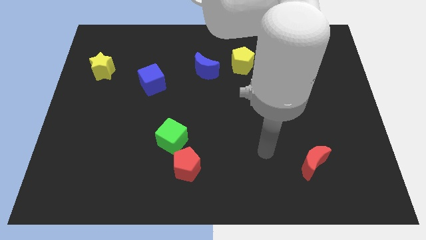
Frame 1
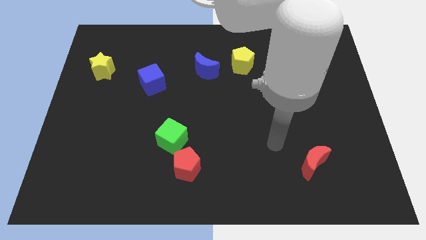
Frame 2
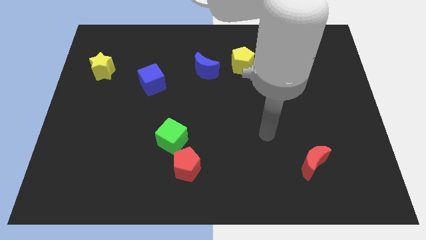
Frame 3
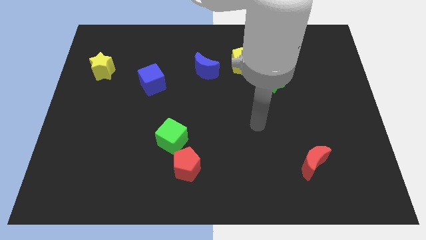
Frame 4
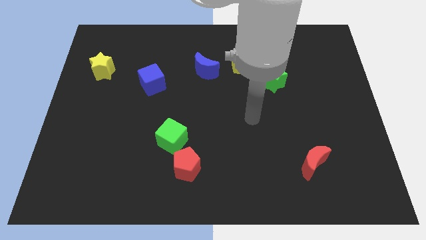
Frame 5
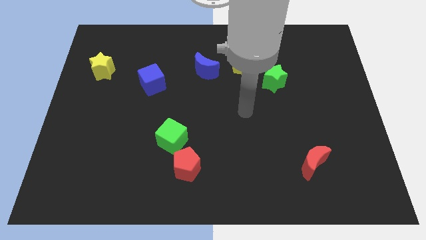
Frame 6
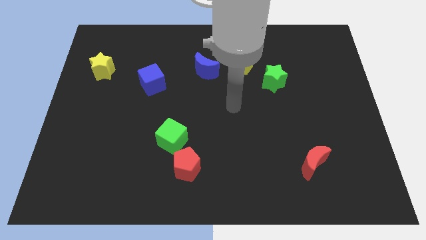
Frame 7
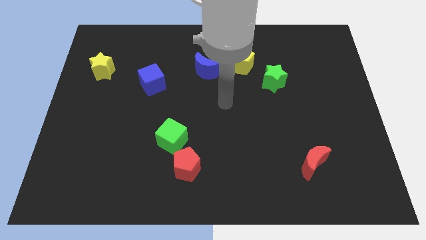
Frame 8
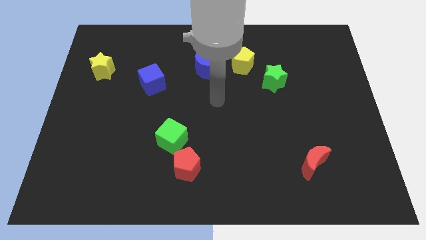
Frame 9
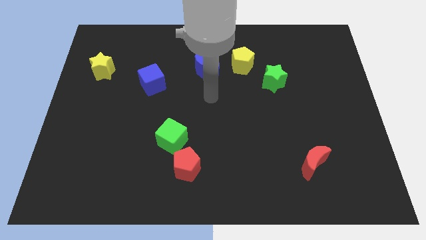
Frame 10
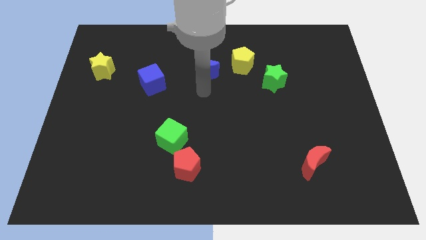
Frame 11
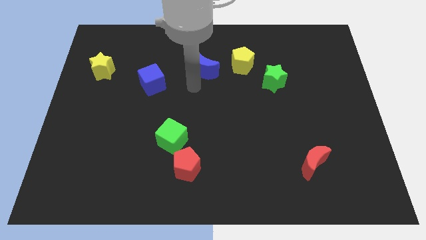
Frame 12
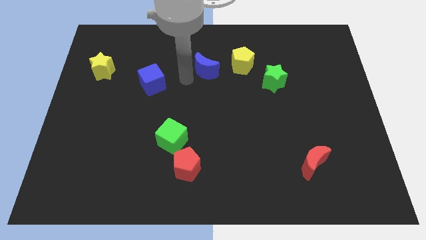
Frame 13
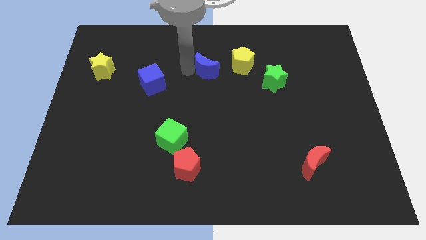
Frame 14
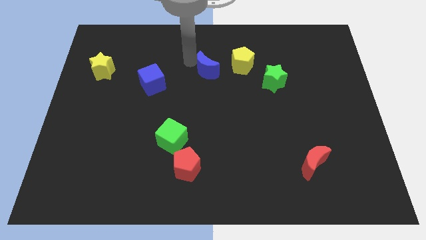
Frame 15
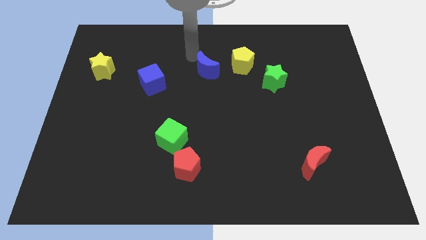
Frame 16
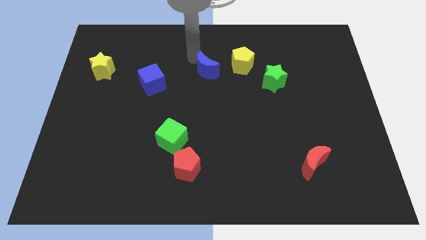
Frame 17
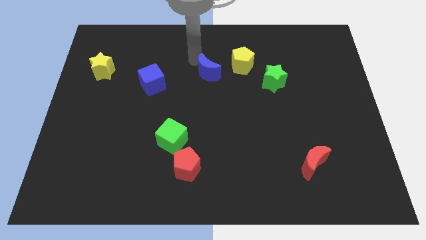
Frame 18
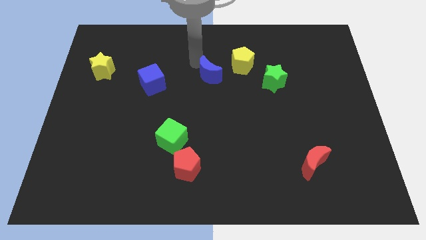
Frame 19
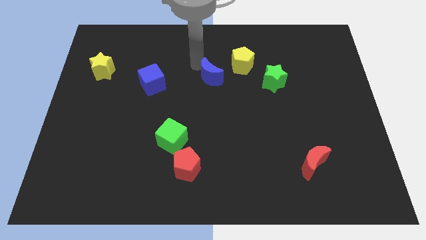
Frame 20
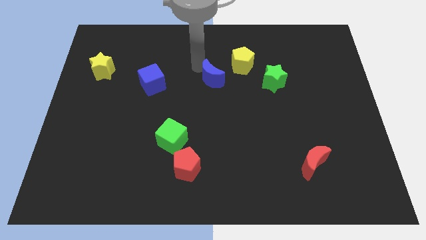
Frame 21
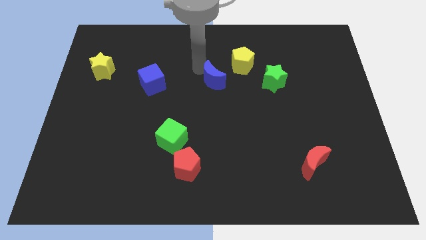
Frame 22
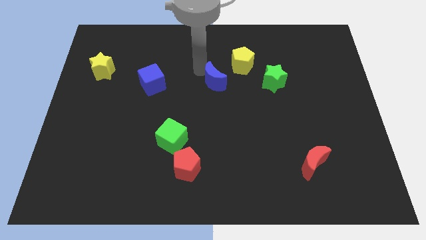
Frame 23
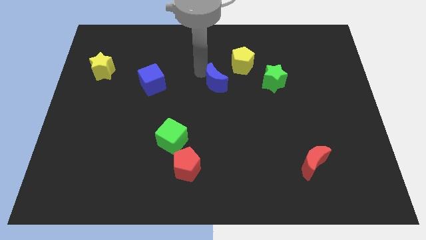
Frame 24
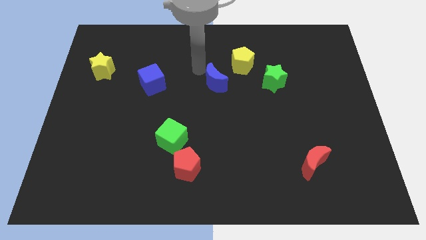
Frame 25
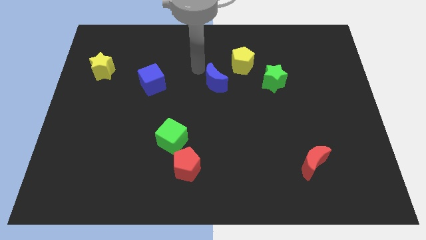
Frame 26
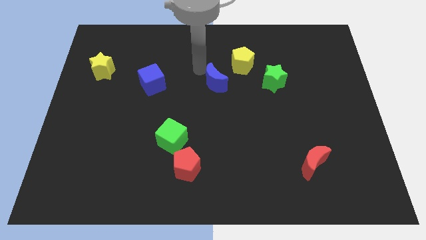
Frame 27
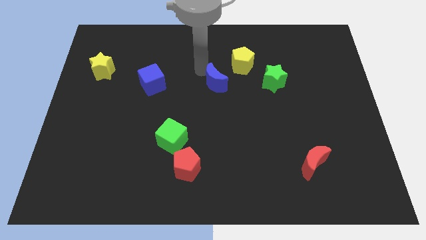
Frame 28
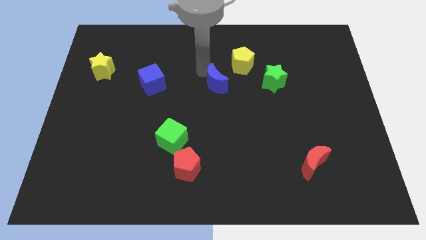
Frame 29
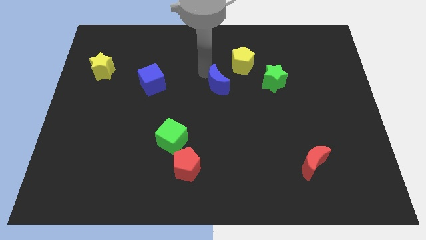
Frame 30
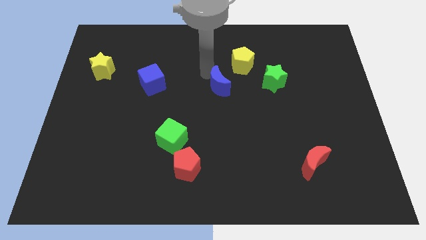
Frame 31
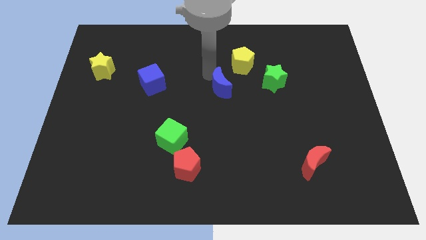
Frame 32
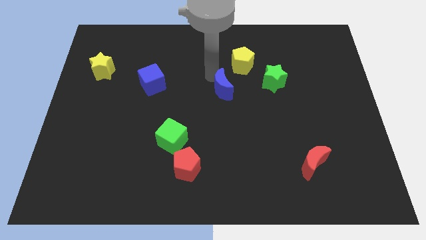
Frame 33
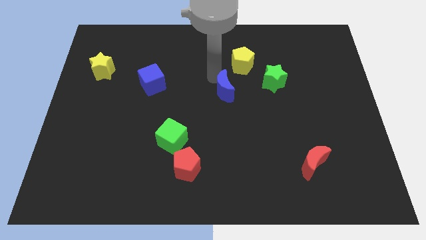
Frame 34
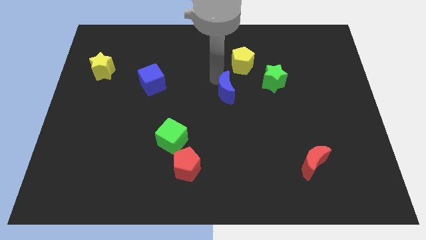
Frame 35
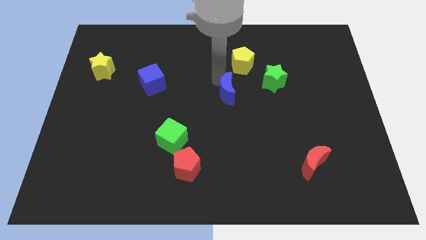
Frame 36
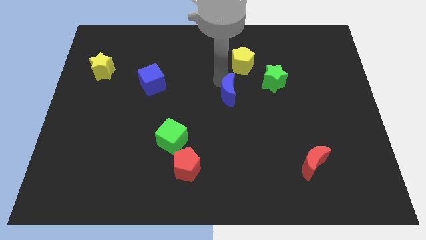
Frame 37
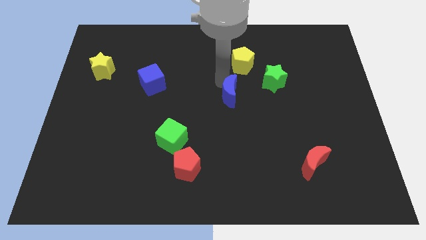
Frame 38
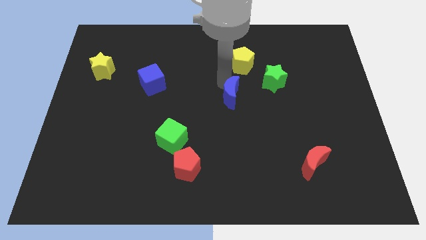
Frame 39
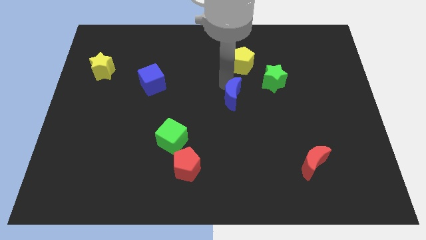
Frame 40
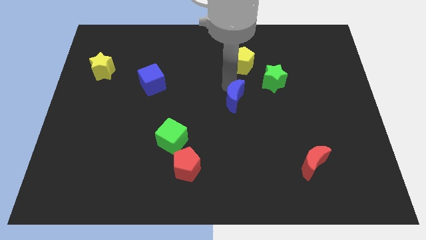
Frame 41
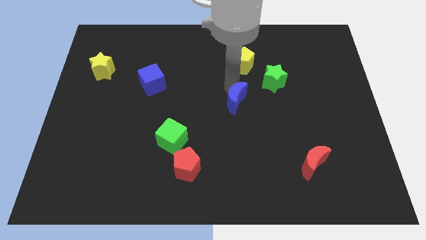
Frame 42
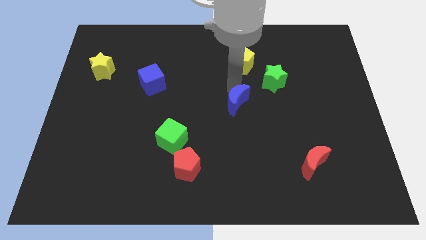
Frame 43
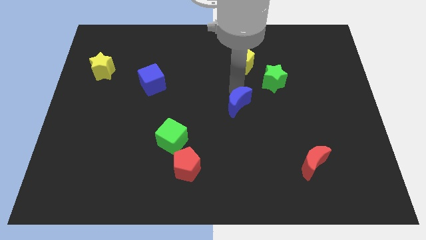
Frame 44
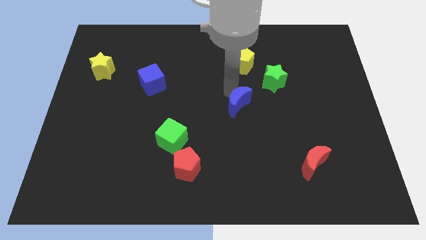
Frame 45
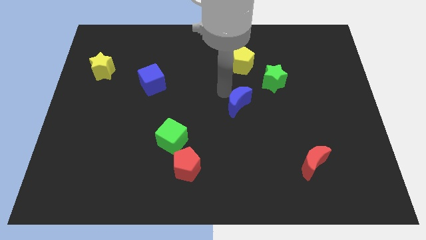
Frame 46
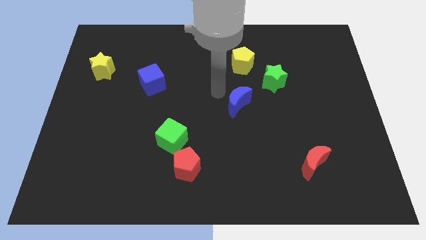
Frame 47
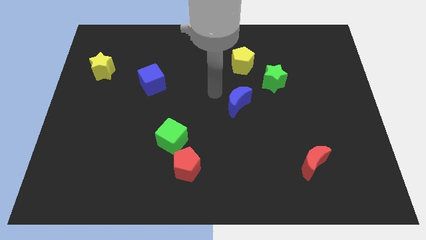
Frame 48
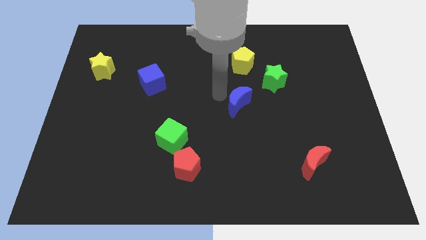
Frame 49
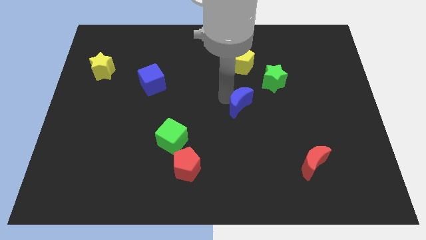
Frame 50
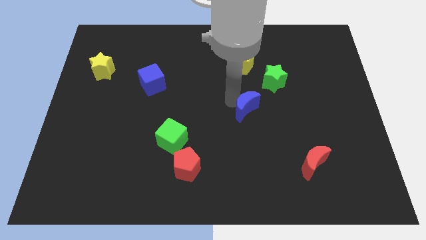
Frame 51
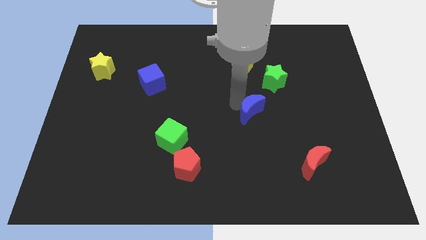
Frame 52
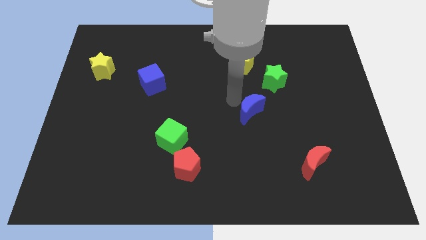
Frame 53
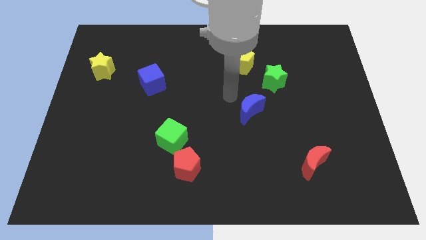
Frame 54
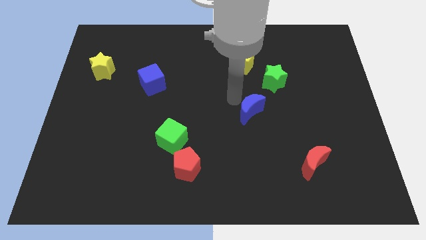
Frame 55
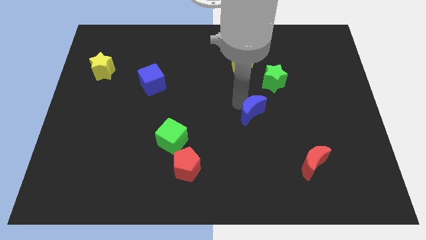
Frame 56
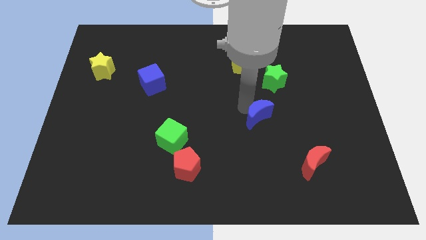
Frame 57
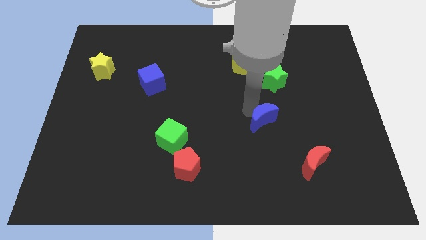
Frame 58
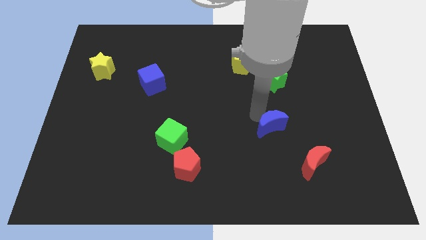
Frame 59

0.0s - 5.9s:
move the blue moon to the top left of the red moon
